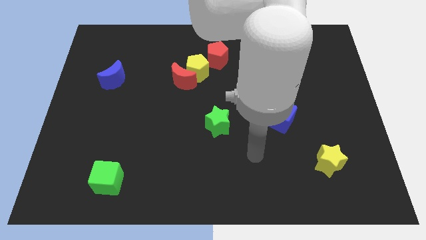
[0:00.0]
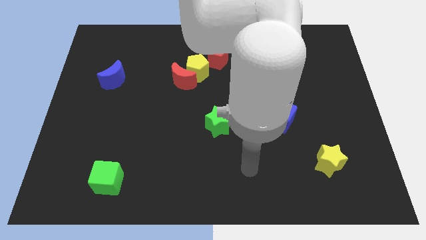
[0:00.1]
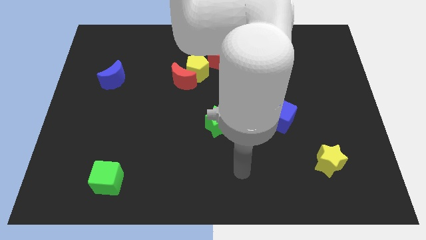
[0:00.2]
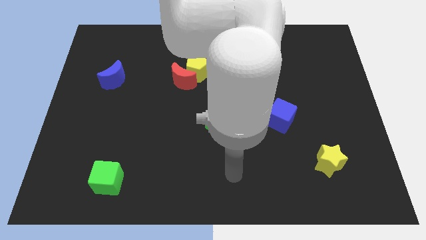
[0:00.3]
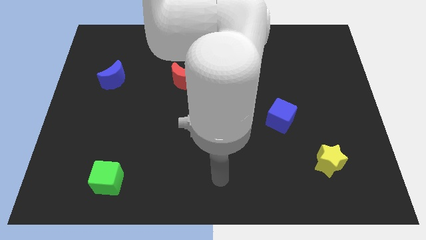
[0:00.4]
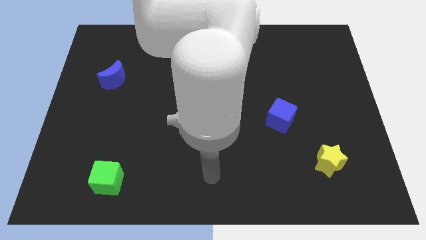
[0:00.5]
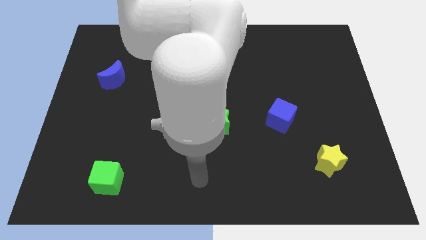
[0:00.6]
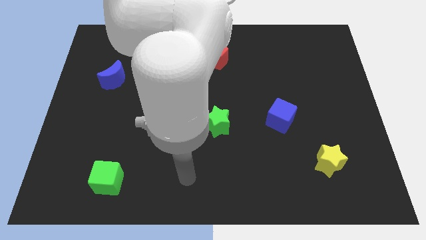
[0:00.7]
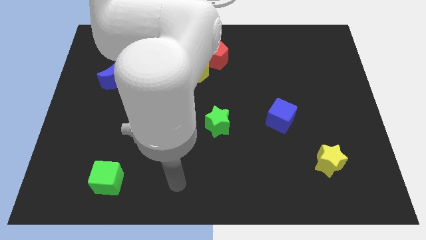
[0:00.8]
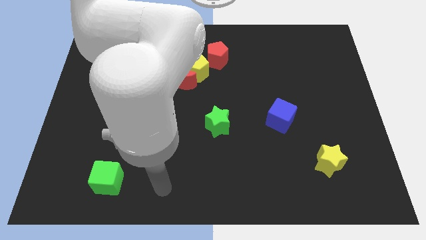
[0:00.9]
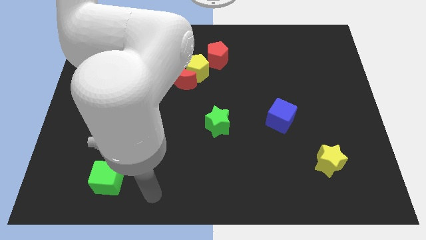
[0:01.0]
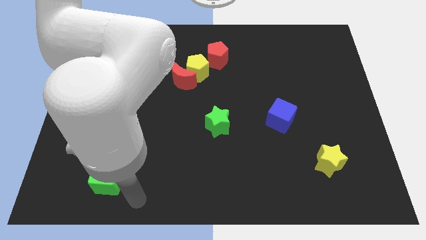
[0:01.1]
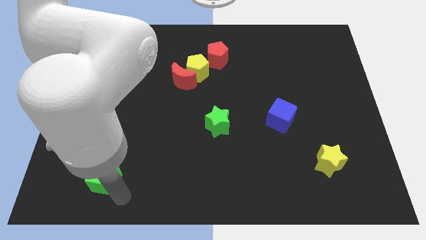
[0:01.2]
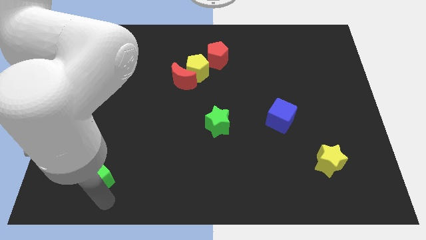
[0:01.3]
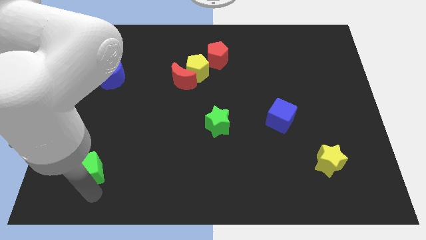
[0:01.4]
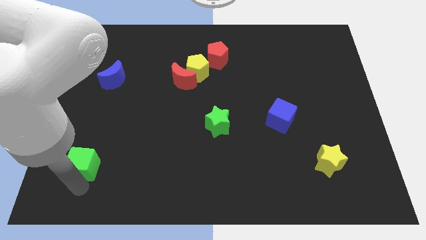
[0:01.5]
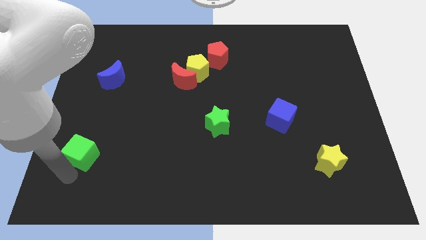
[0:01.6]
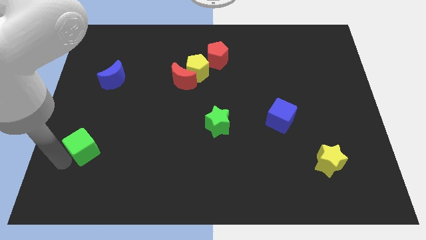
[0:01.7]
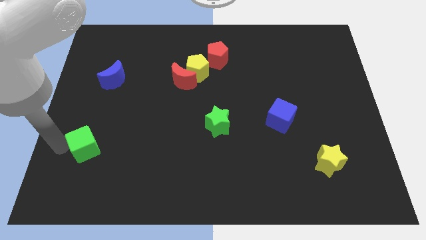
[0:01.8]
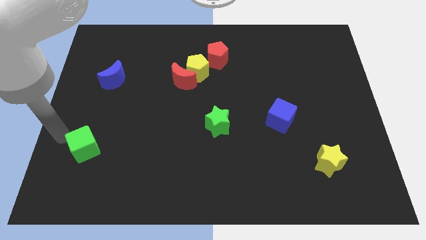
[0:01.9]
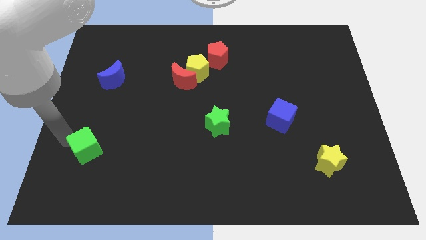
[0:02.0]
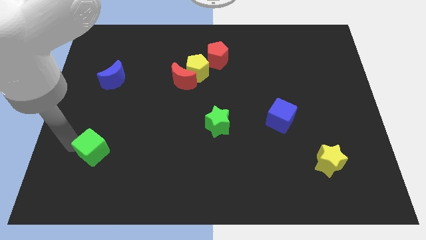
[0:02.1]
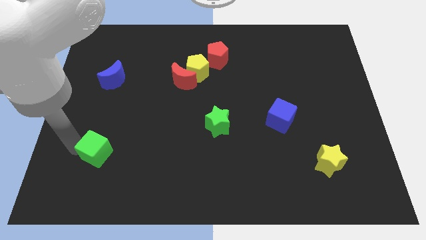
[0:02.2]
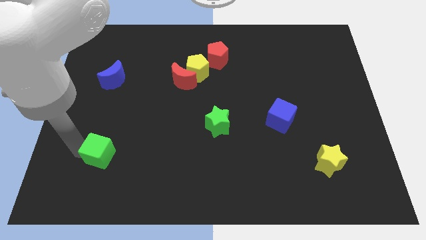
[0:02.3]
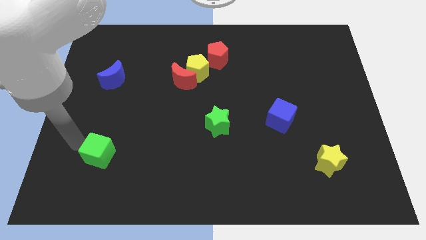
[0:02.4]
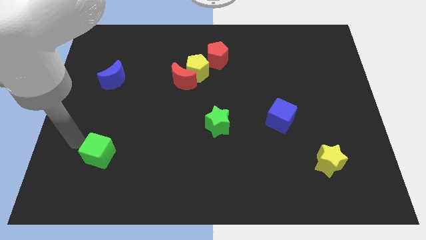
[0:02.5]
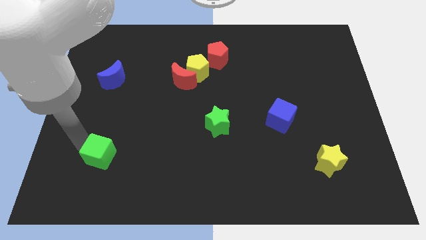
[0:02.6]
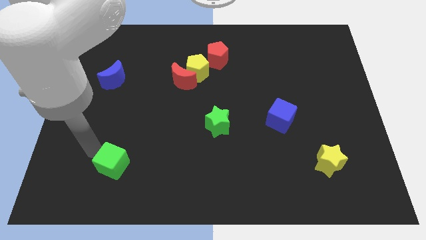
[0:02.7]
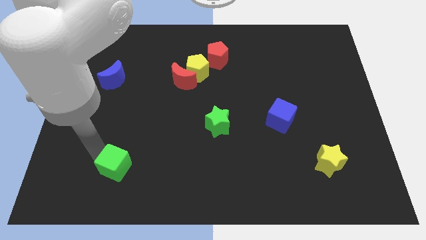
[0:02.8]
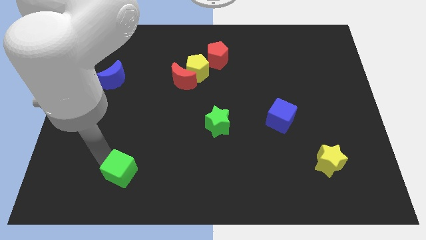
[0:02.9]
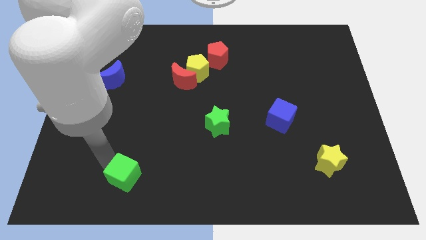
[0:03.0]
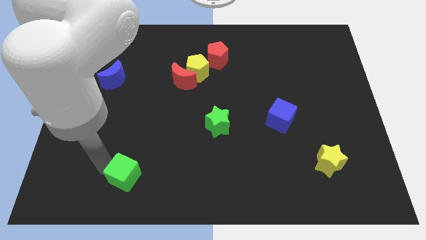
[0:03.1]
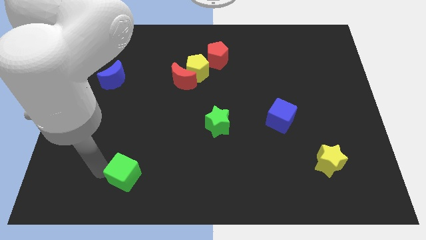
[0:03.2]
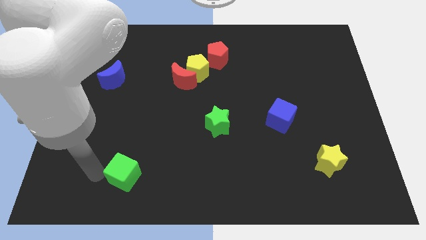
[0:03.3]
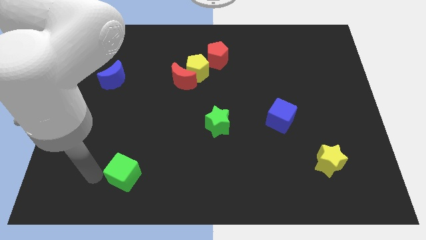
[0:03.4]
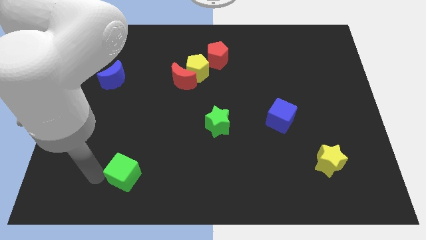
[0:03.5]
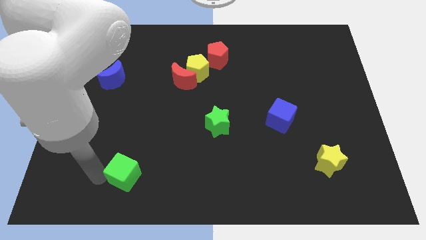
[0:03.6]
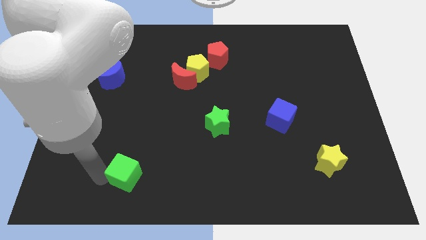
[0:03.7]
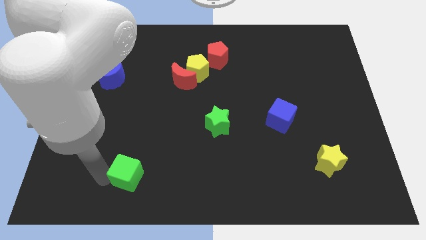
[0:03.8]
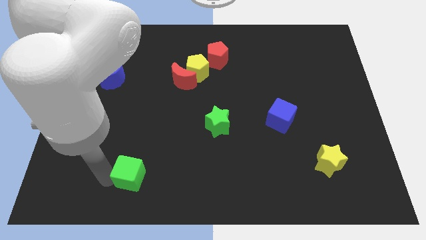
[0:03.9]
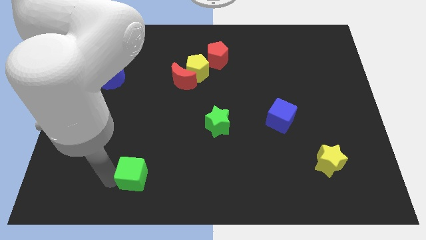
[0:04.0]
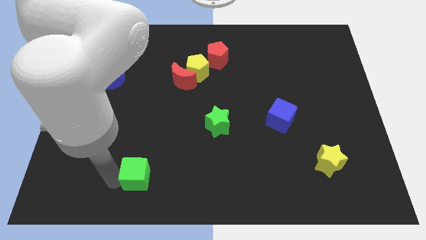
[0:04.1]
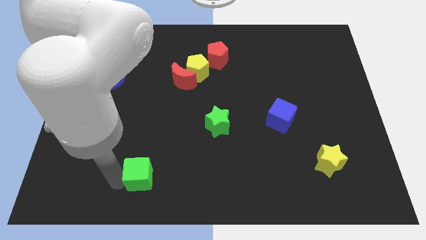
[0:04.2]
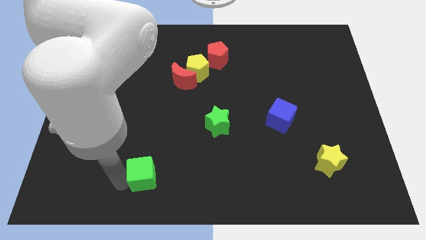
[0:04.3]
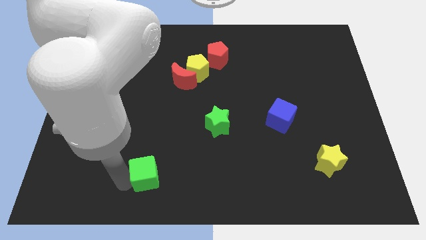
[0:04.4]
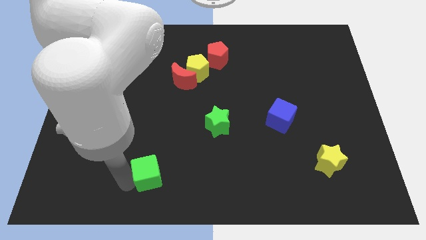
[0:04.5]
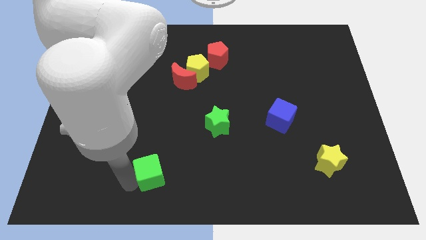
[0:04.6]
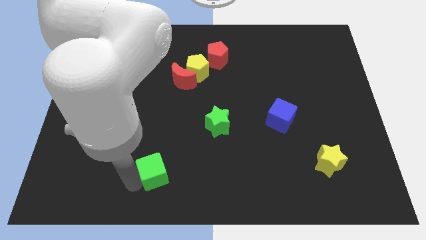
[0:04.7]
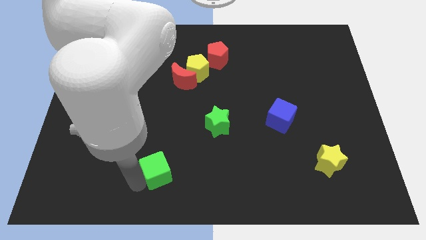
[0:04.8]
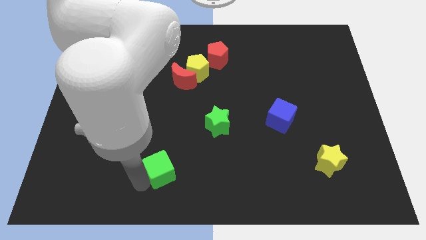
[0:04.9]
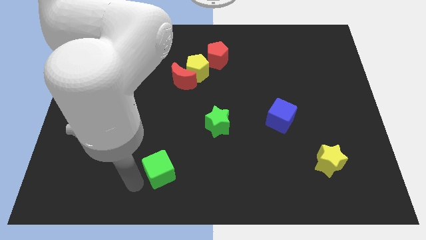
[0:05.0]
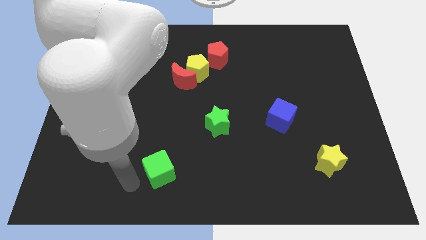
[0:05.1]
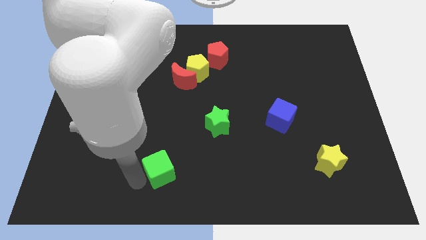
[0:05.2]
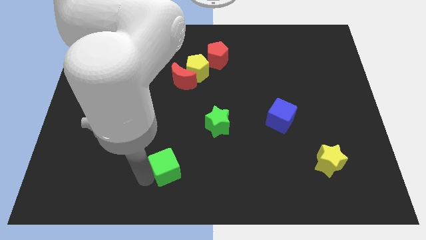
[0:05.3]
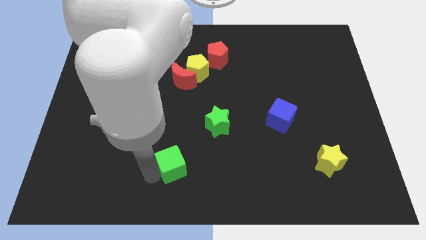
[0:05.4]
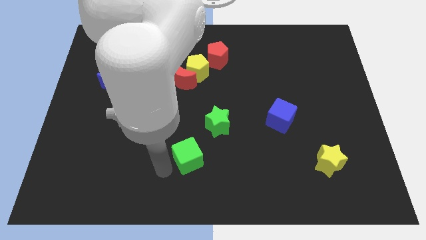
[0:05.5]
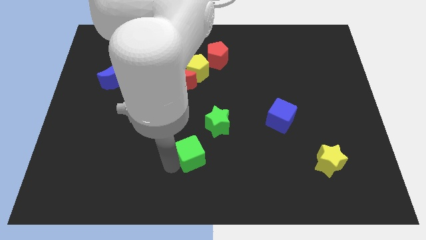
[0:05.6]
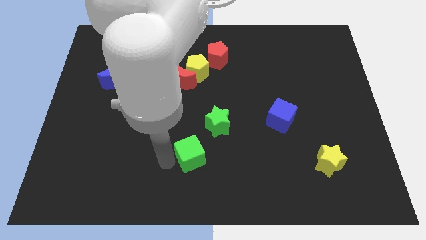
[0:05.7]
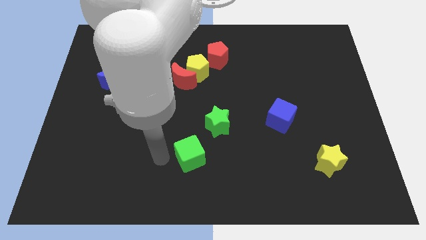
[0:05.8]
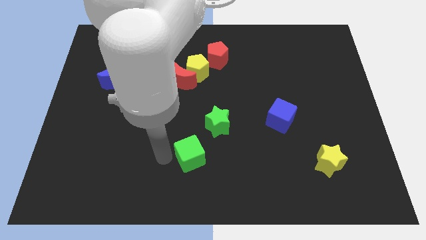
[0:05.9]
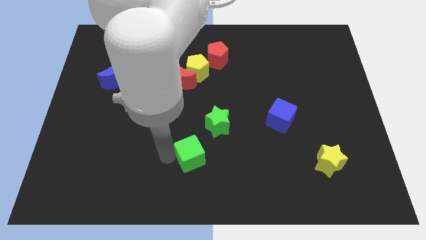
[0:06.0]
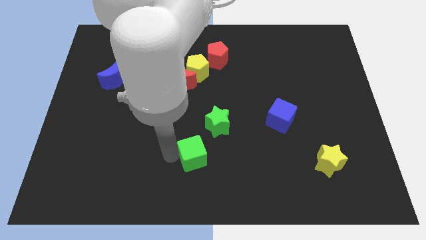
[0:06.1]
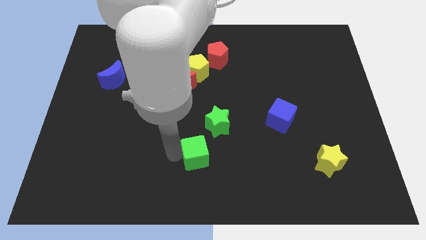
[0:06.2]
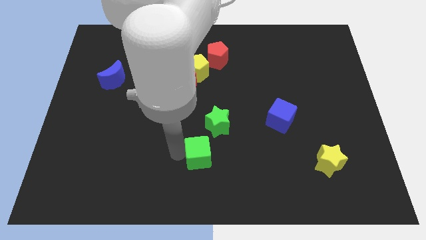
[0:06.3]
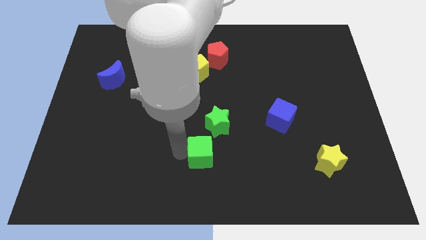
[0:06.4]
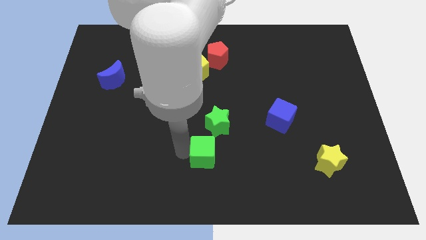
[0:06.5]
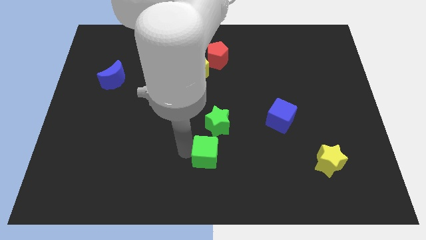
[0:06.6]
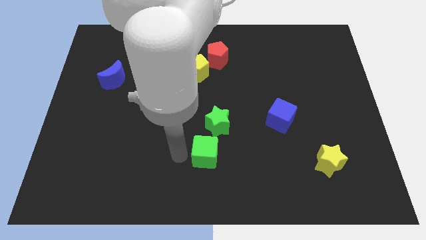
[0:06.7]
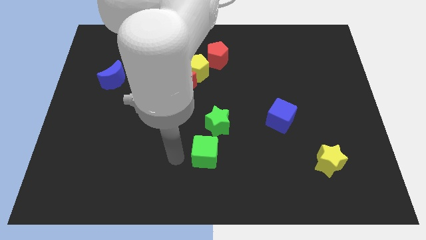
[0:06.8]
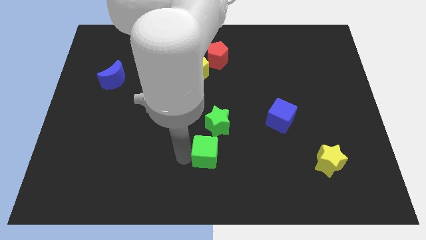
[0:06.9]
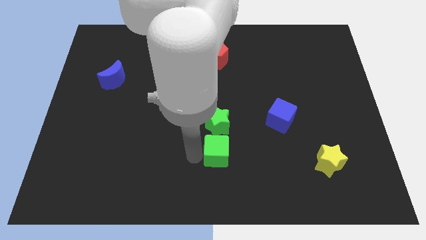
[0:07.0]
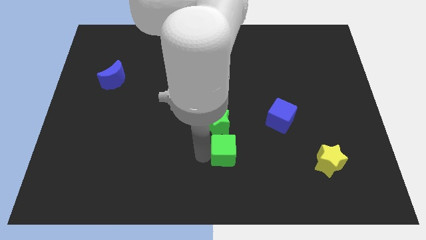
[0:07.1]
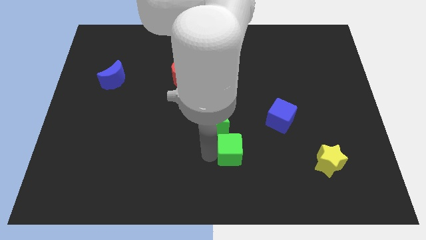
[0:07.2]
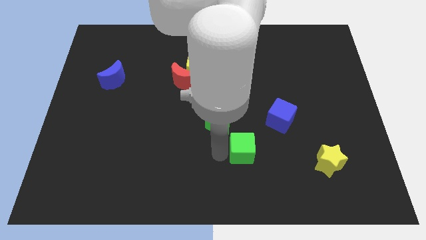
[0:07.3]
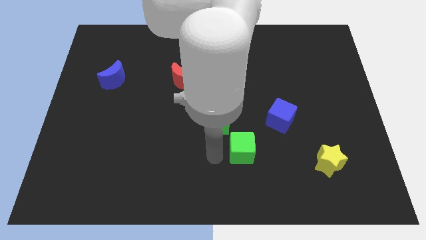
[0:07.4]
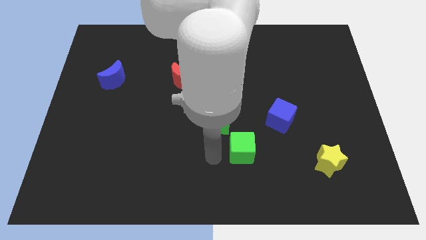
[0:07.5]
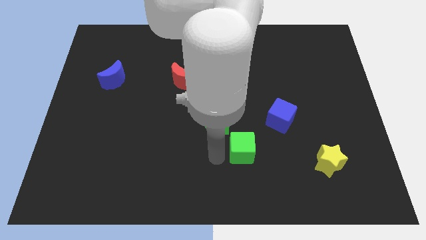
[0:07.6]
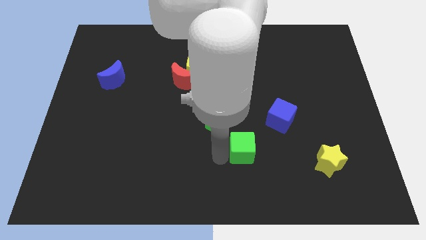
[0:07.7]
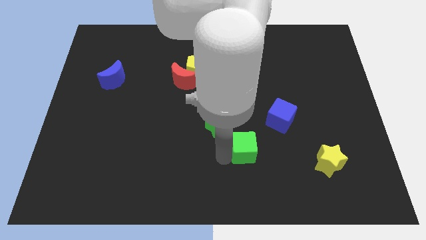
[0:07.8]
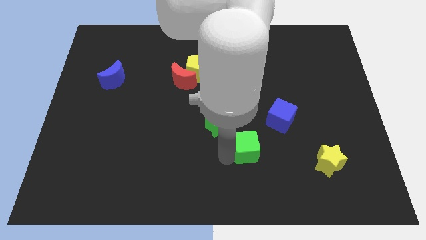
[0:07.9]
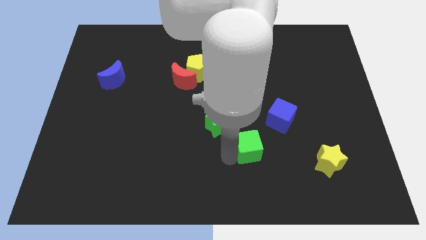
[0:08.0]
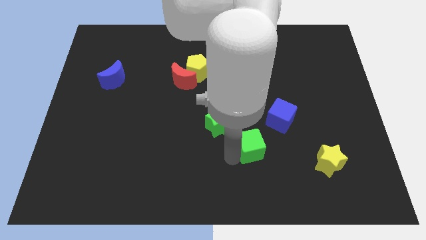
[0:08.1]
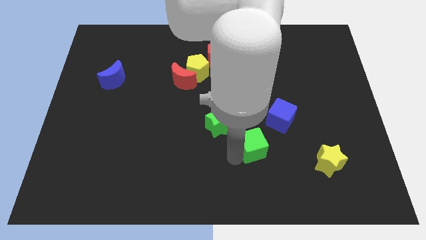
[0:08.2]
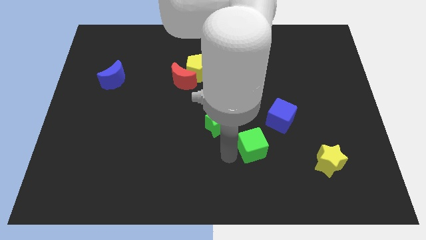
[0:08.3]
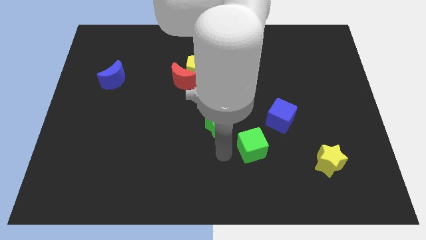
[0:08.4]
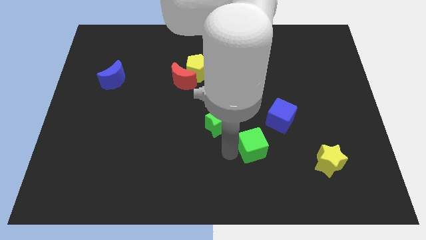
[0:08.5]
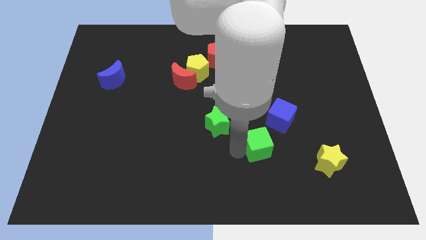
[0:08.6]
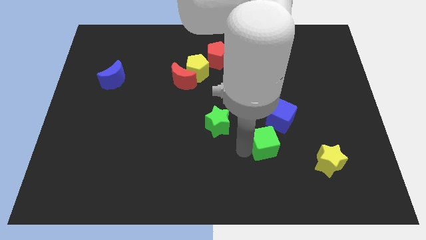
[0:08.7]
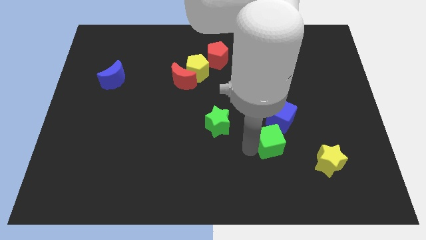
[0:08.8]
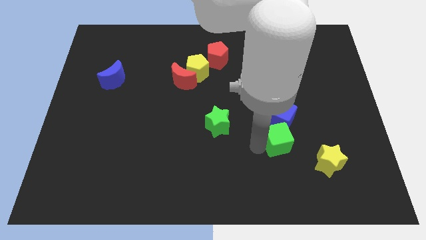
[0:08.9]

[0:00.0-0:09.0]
move the green cube diagonally up and to the left of the yellow star
